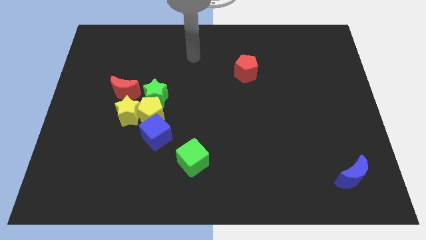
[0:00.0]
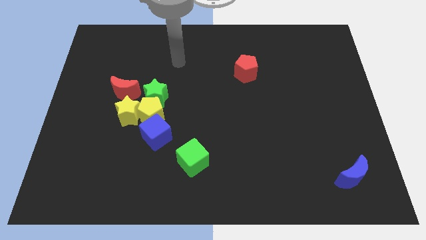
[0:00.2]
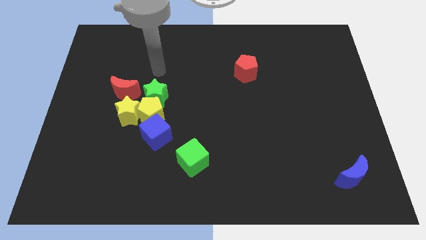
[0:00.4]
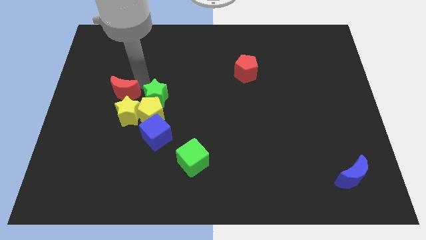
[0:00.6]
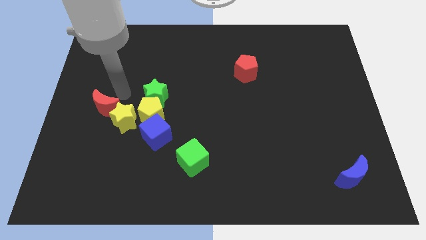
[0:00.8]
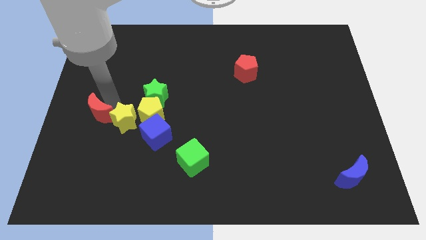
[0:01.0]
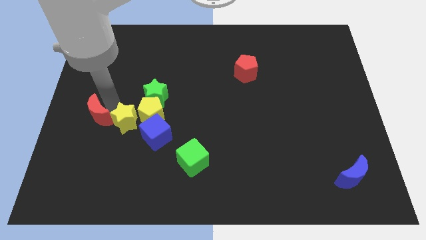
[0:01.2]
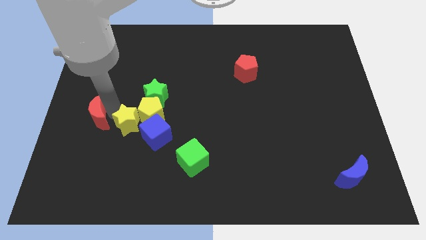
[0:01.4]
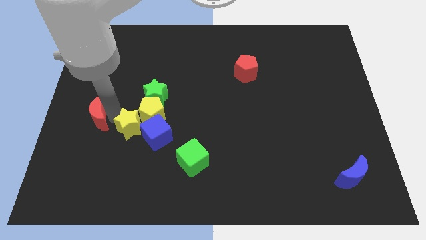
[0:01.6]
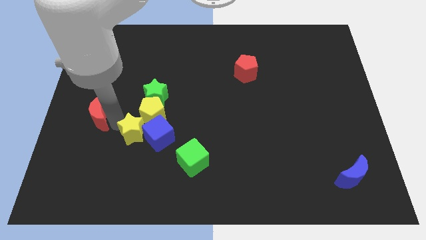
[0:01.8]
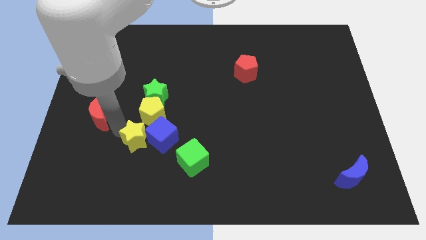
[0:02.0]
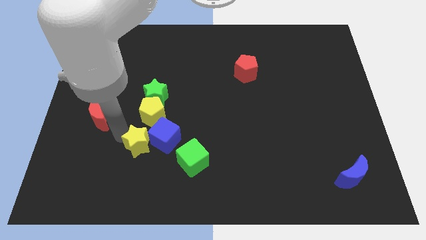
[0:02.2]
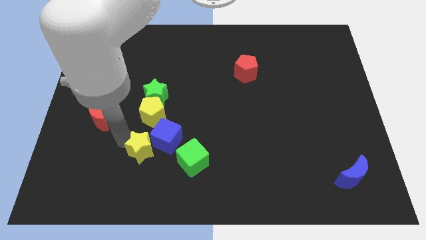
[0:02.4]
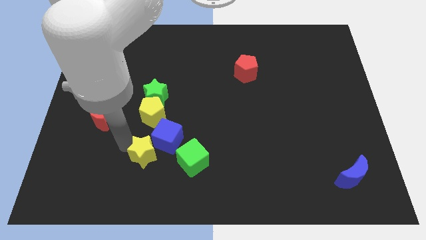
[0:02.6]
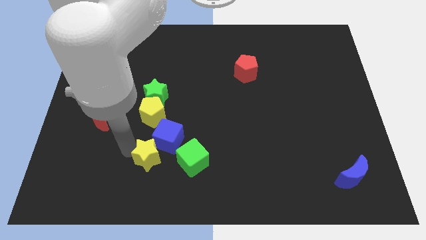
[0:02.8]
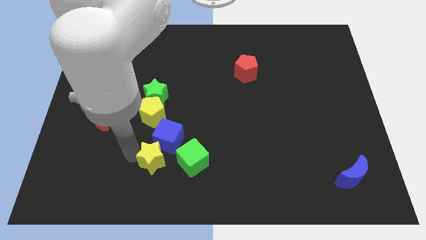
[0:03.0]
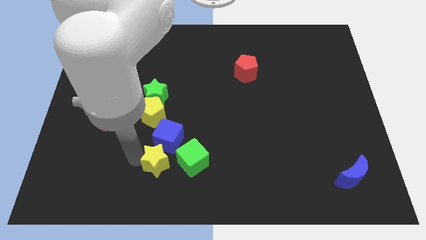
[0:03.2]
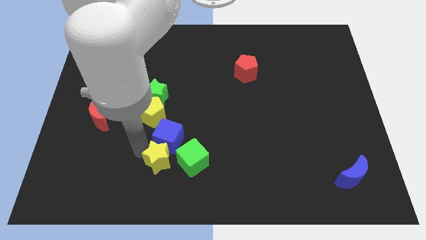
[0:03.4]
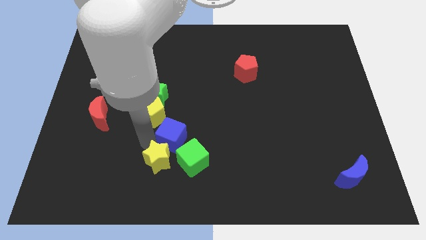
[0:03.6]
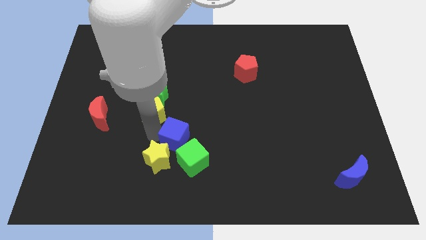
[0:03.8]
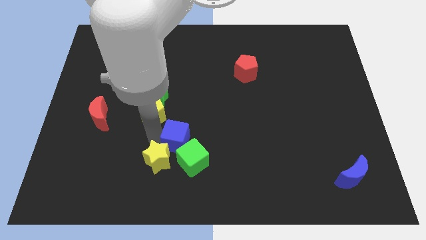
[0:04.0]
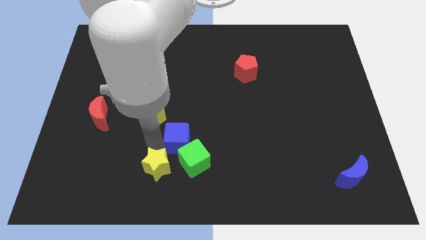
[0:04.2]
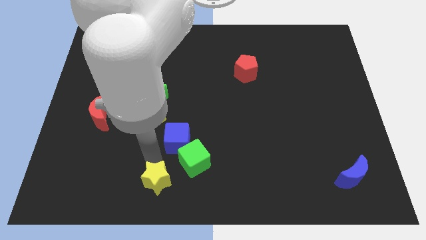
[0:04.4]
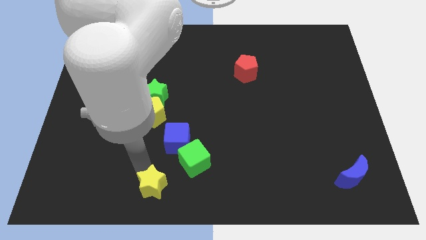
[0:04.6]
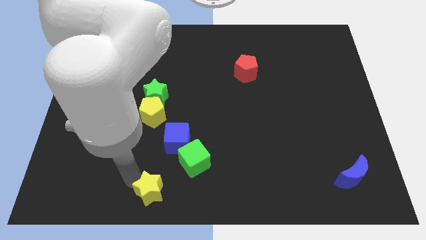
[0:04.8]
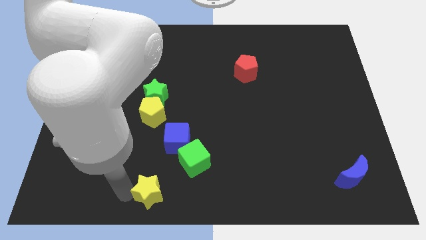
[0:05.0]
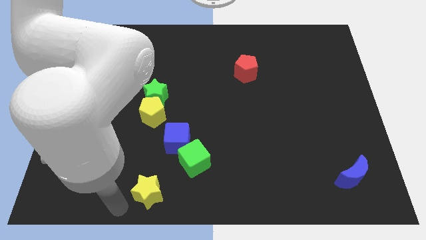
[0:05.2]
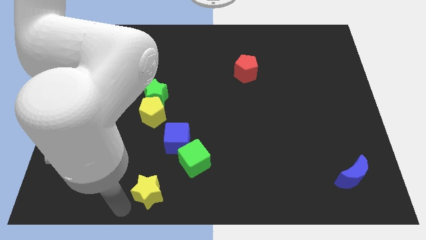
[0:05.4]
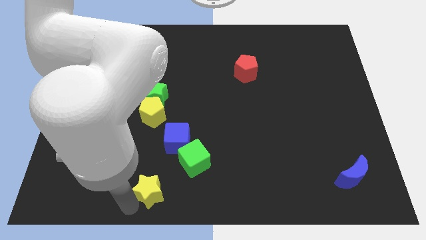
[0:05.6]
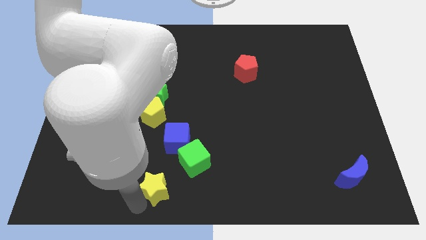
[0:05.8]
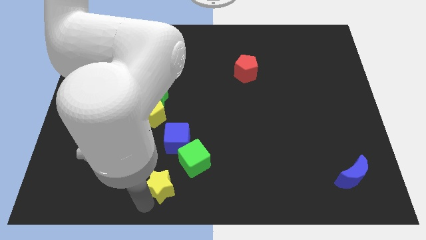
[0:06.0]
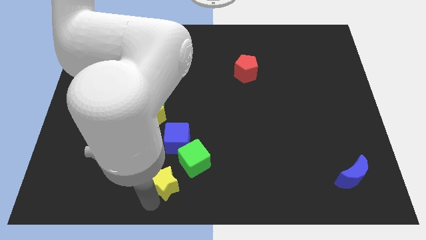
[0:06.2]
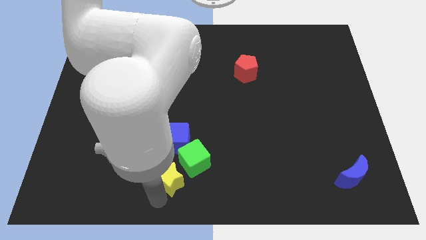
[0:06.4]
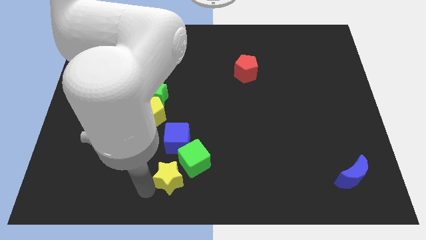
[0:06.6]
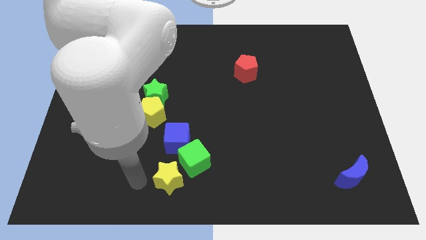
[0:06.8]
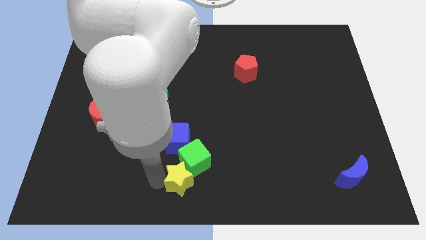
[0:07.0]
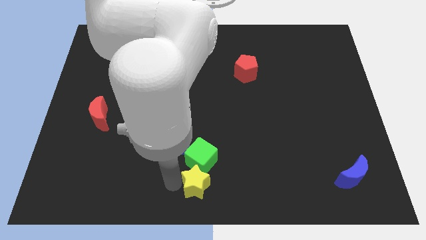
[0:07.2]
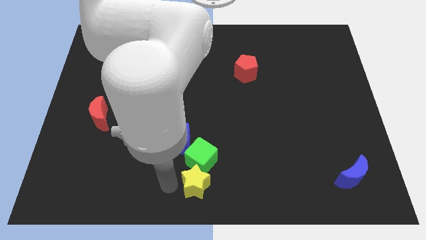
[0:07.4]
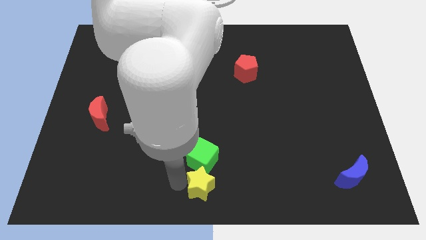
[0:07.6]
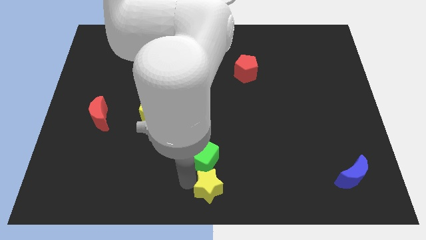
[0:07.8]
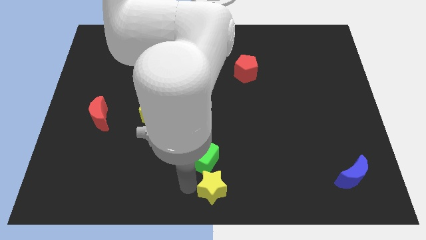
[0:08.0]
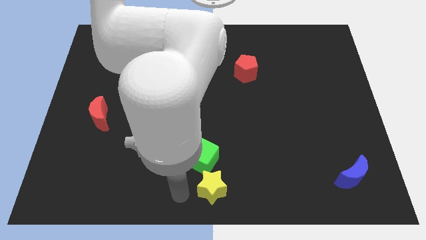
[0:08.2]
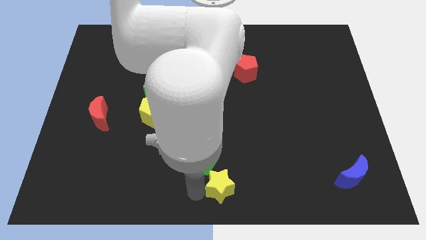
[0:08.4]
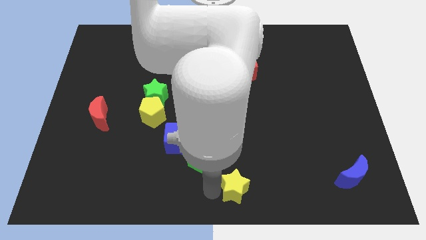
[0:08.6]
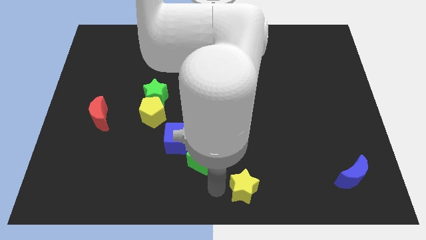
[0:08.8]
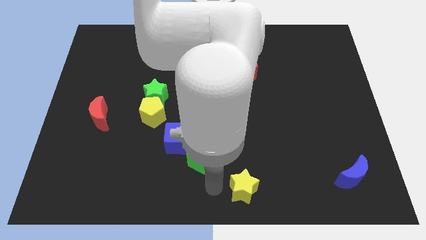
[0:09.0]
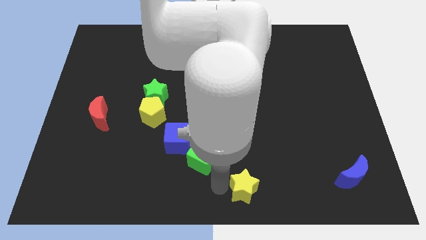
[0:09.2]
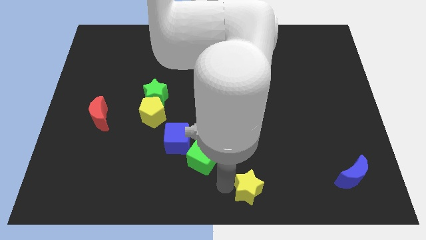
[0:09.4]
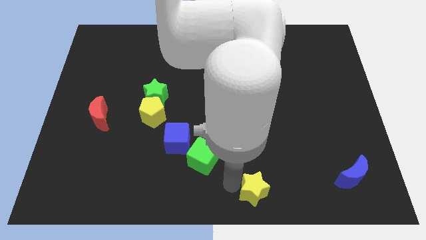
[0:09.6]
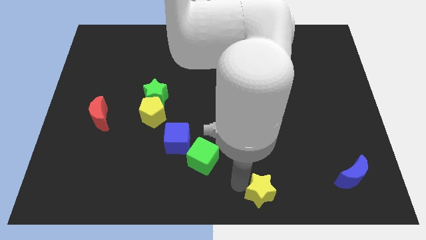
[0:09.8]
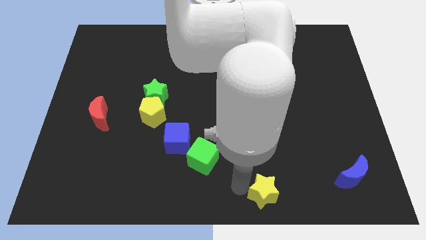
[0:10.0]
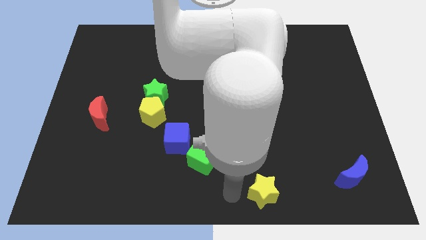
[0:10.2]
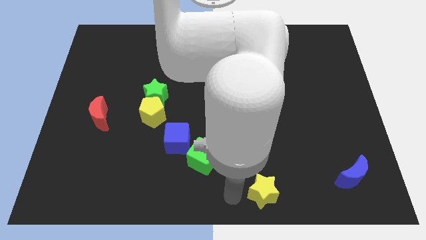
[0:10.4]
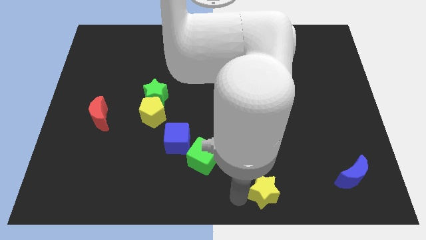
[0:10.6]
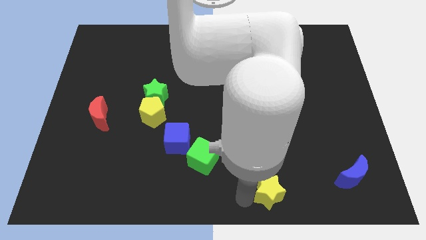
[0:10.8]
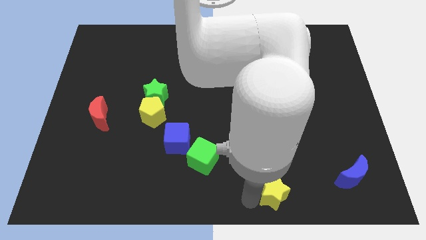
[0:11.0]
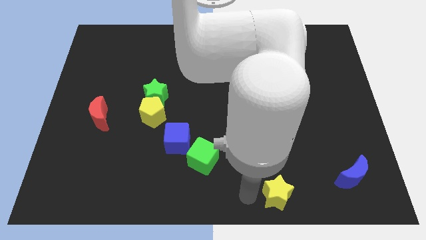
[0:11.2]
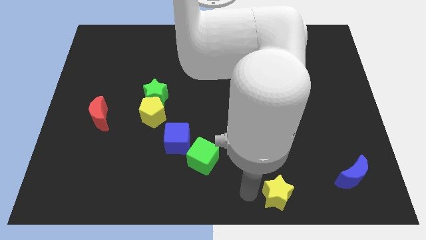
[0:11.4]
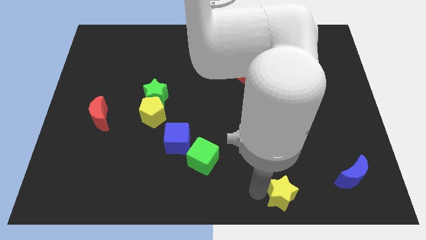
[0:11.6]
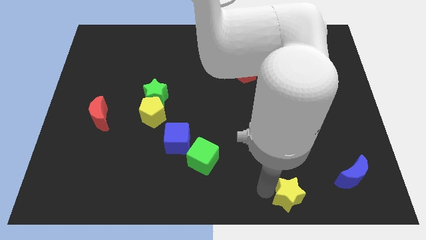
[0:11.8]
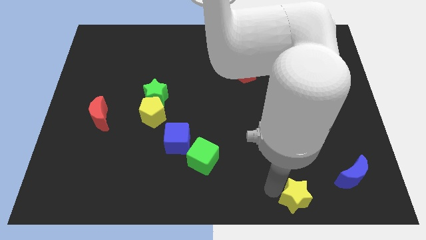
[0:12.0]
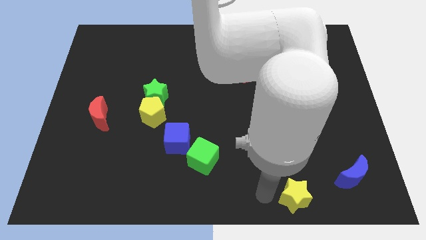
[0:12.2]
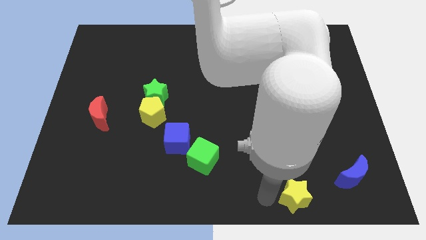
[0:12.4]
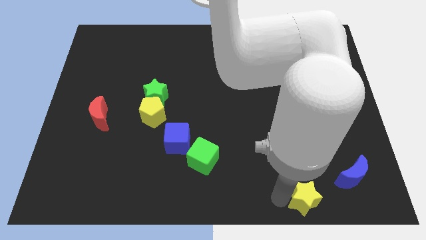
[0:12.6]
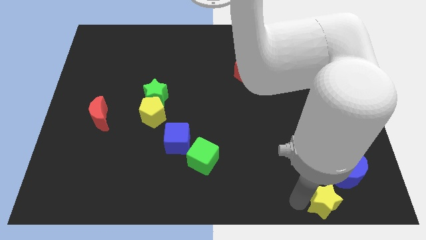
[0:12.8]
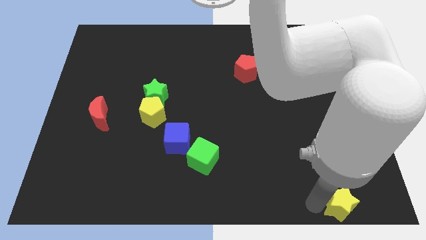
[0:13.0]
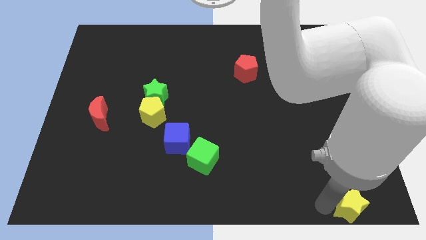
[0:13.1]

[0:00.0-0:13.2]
put the yellow star to the lower right corner
